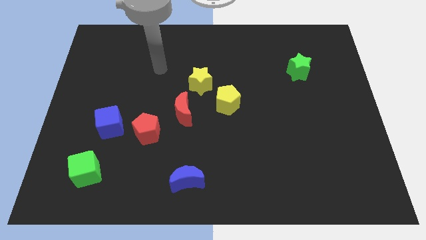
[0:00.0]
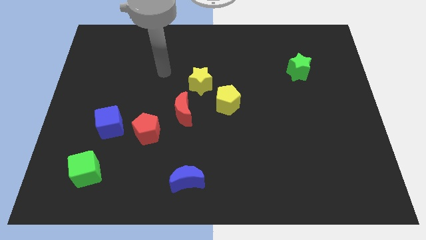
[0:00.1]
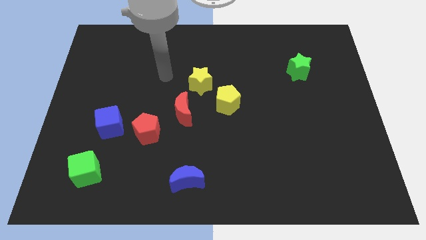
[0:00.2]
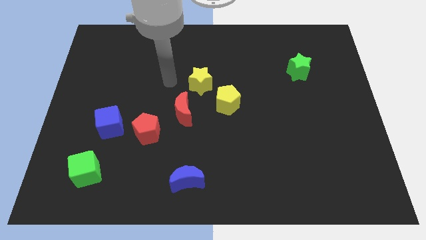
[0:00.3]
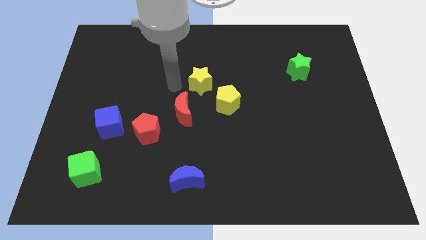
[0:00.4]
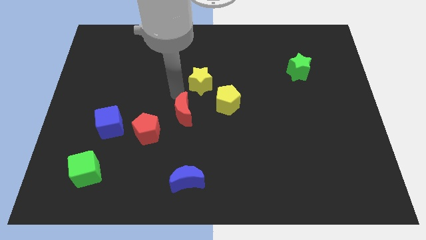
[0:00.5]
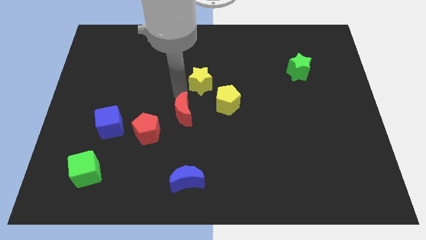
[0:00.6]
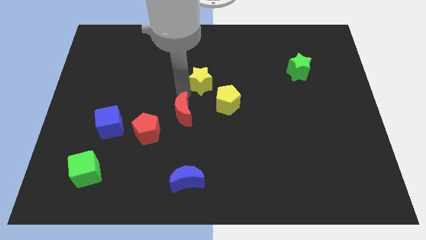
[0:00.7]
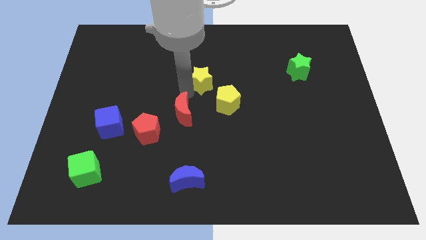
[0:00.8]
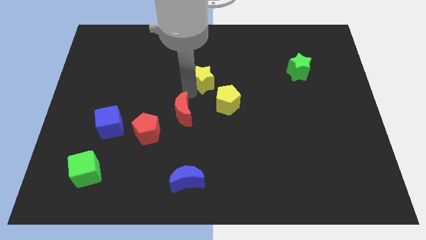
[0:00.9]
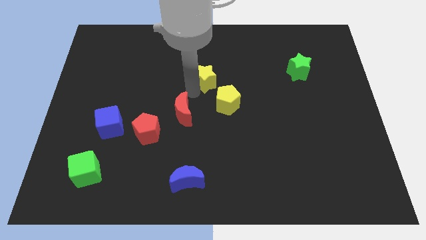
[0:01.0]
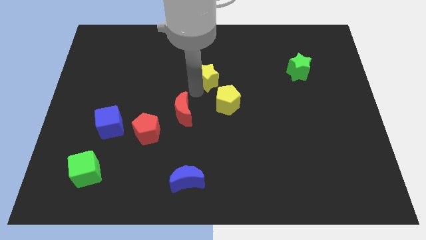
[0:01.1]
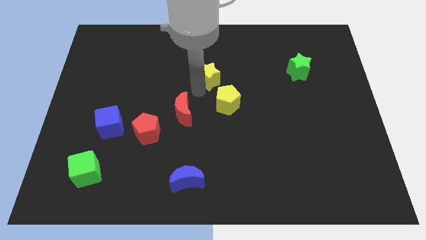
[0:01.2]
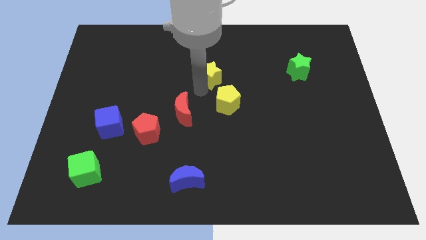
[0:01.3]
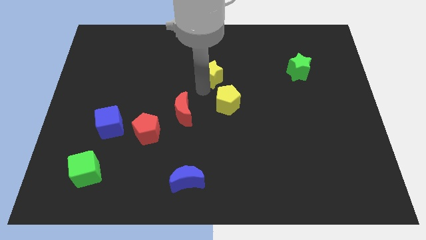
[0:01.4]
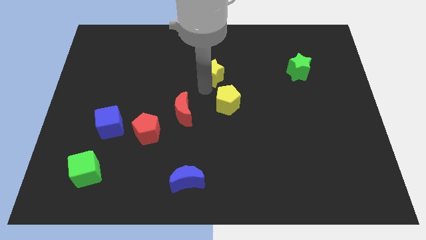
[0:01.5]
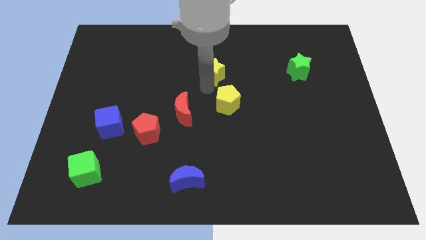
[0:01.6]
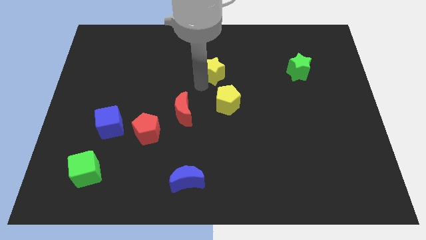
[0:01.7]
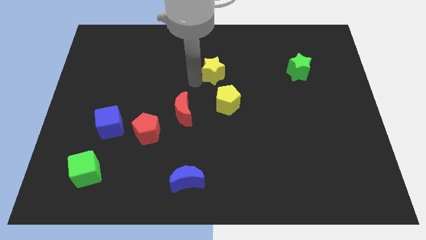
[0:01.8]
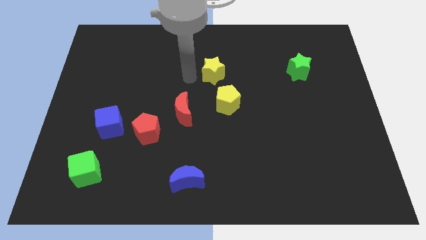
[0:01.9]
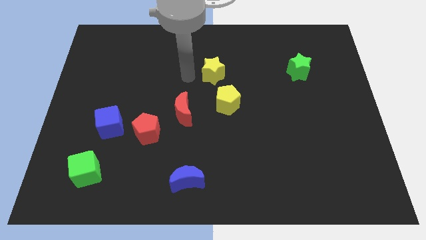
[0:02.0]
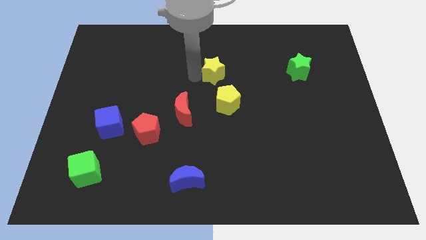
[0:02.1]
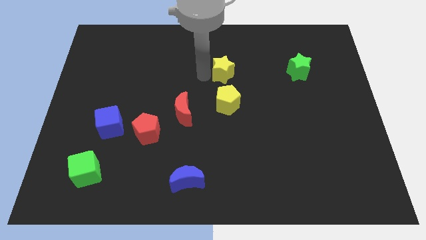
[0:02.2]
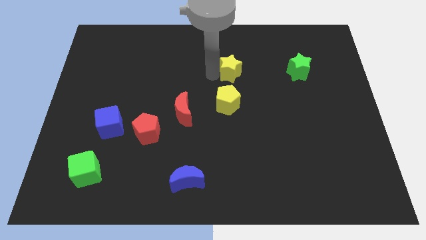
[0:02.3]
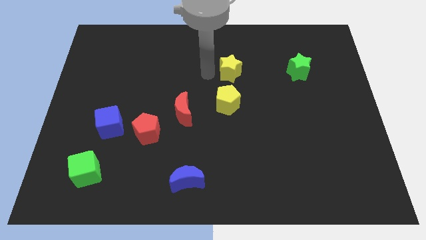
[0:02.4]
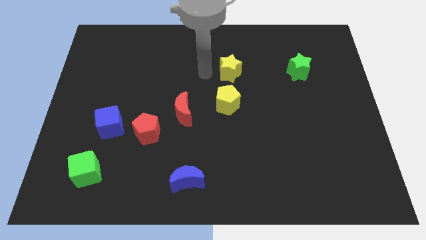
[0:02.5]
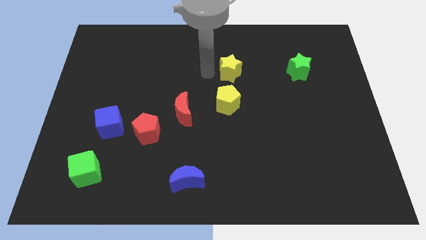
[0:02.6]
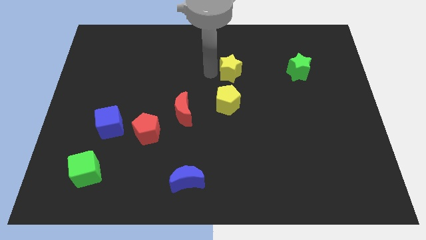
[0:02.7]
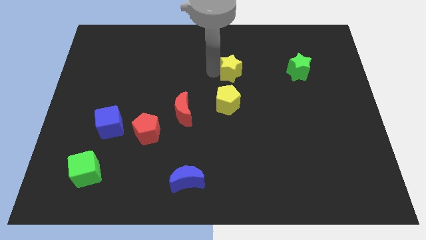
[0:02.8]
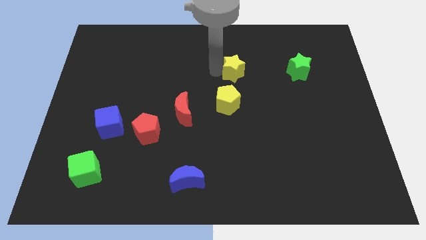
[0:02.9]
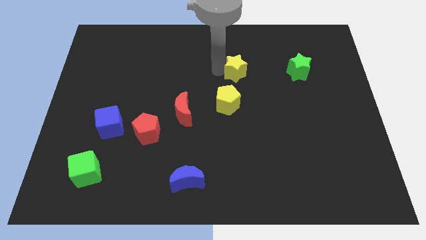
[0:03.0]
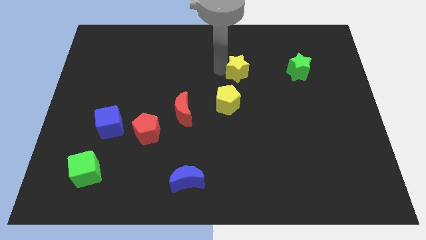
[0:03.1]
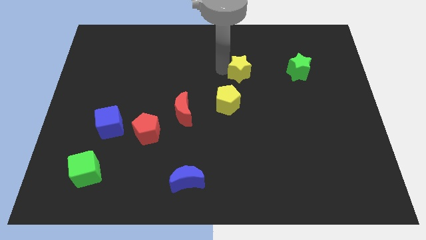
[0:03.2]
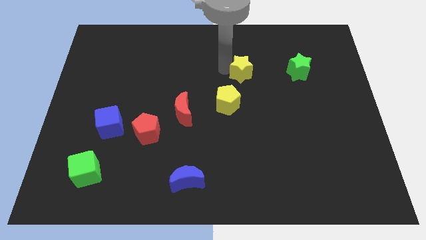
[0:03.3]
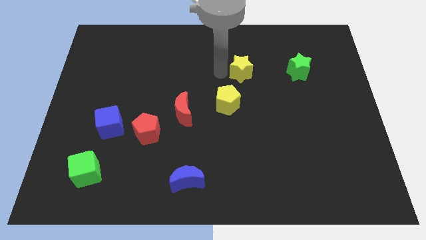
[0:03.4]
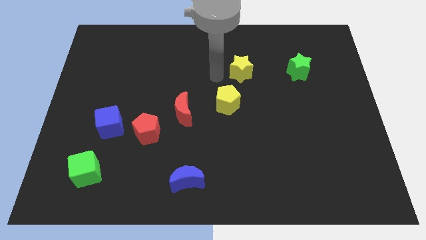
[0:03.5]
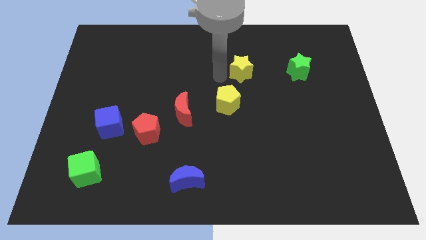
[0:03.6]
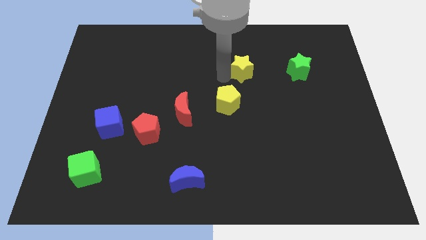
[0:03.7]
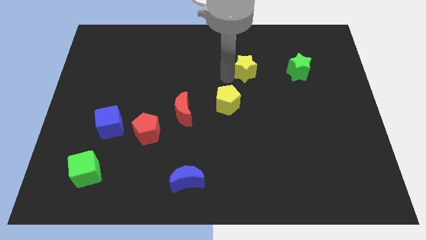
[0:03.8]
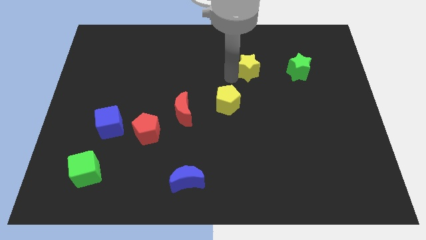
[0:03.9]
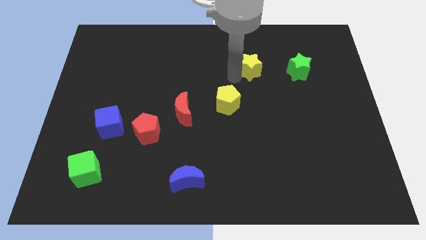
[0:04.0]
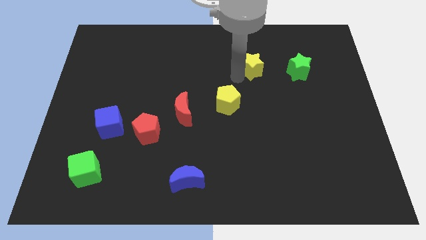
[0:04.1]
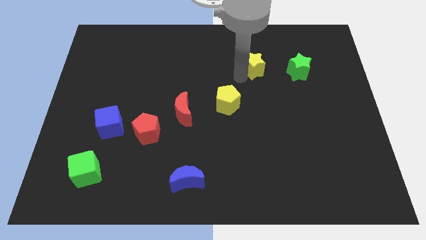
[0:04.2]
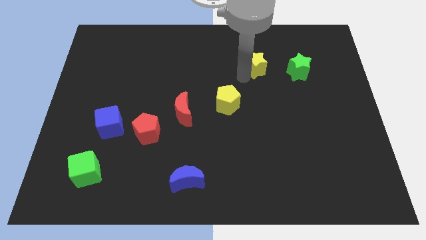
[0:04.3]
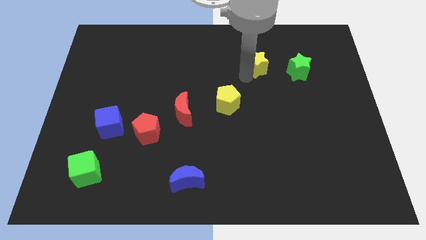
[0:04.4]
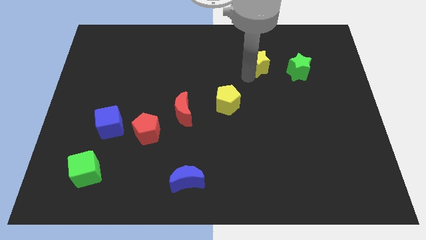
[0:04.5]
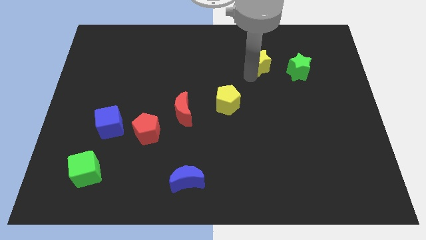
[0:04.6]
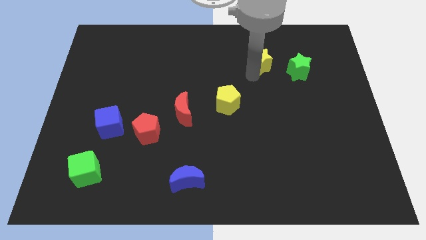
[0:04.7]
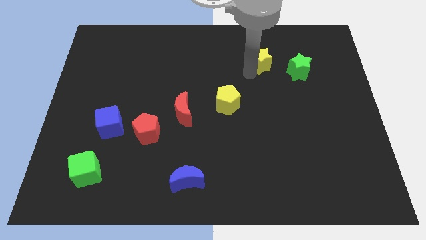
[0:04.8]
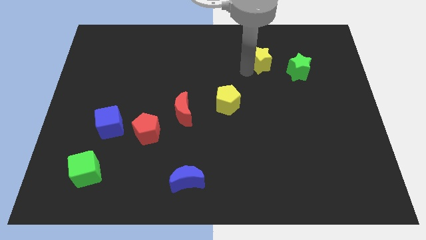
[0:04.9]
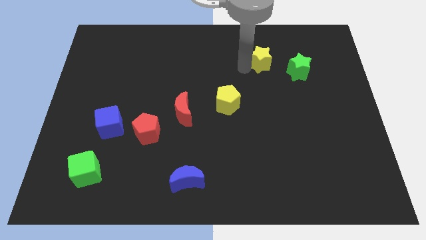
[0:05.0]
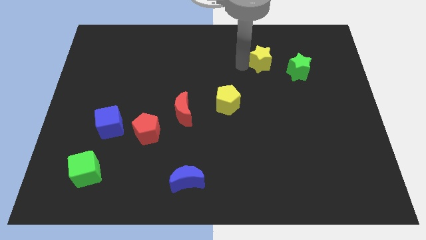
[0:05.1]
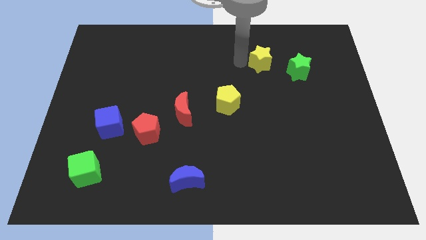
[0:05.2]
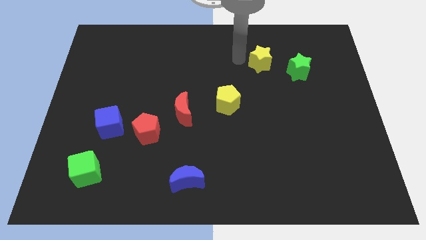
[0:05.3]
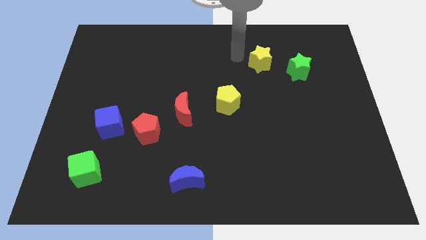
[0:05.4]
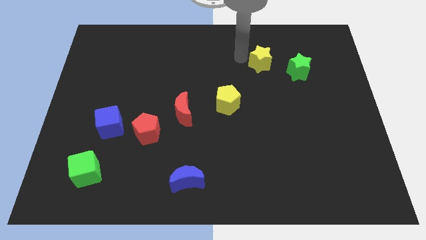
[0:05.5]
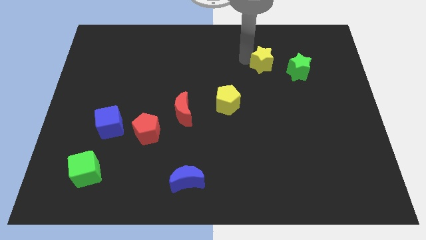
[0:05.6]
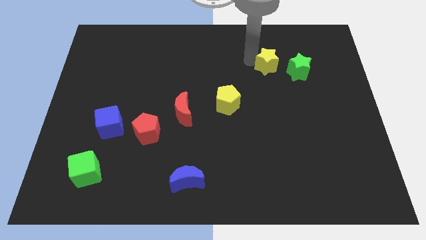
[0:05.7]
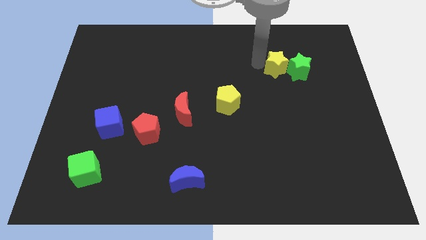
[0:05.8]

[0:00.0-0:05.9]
put the yellow star close to the green star

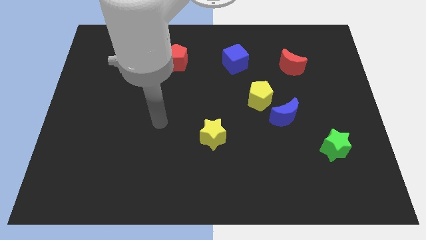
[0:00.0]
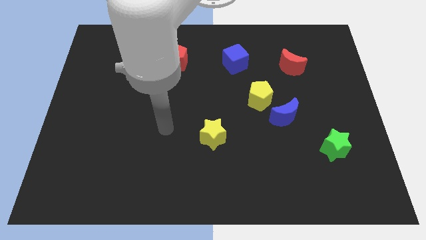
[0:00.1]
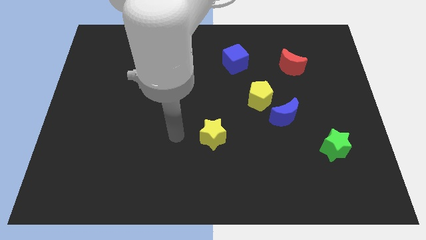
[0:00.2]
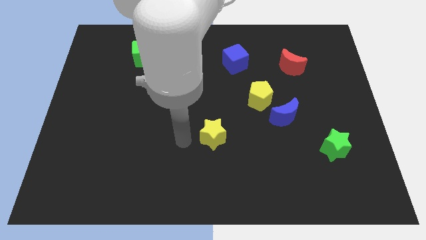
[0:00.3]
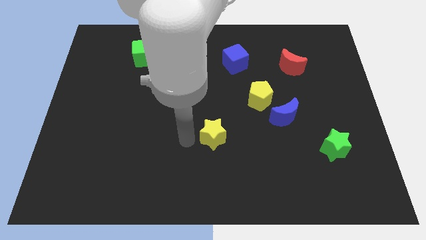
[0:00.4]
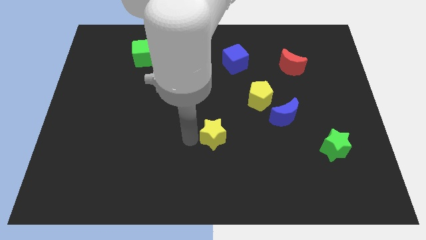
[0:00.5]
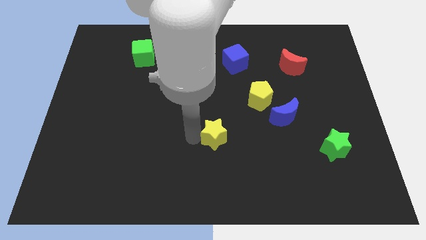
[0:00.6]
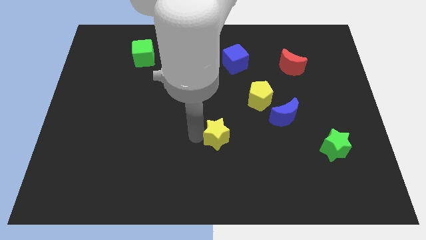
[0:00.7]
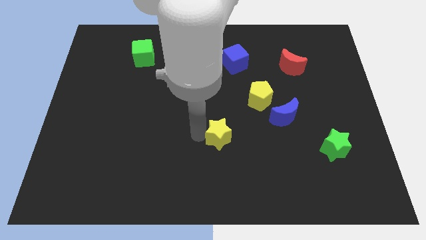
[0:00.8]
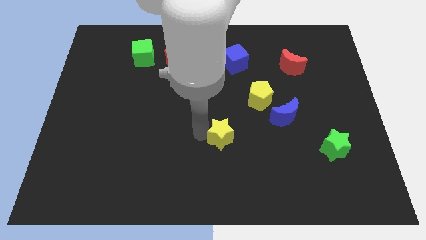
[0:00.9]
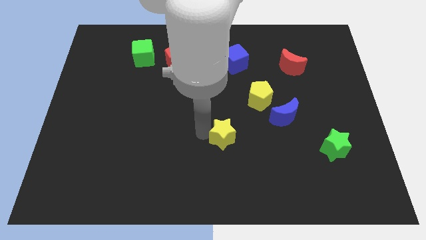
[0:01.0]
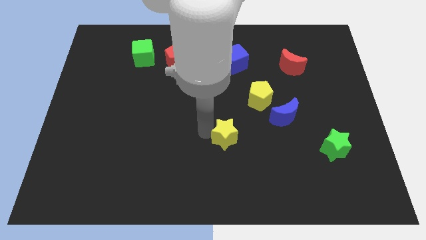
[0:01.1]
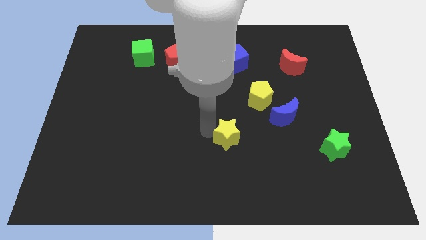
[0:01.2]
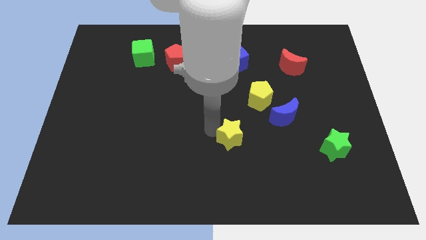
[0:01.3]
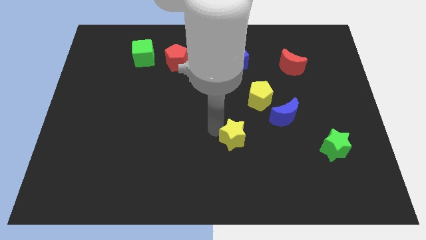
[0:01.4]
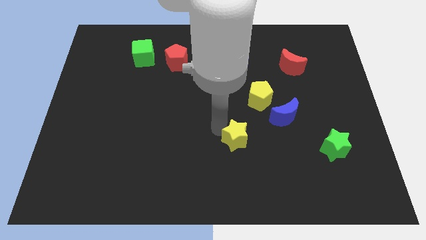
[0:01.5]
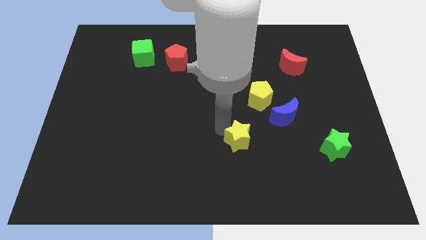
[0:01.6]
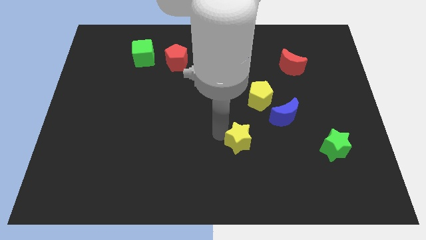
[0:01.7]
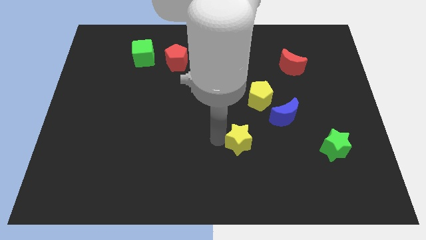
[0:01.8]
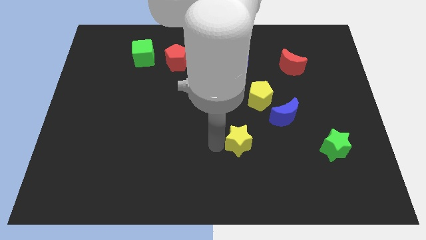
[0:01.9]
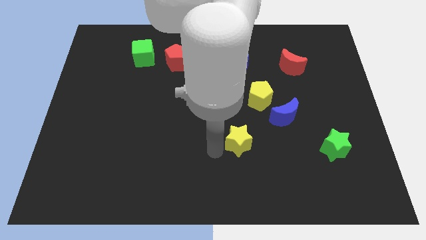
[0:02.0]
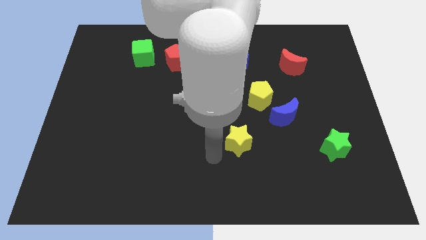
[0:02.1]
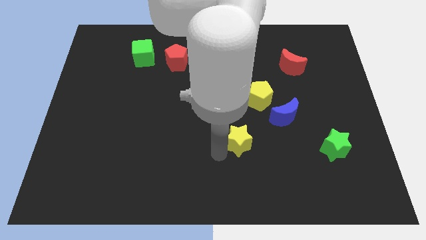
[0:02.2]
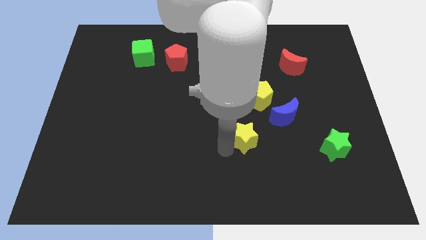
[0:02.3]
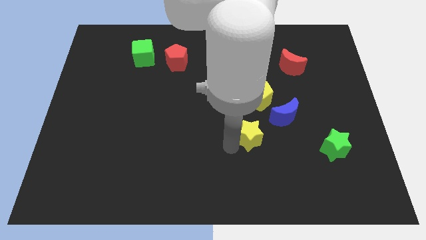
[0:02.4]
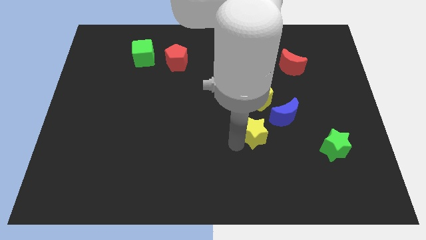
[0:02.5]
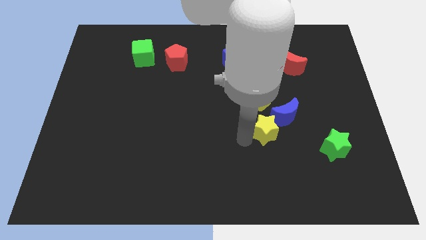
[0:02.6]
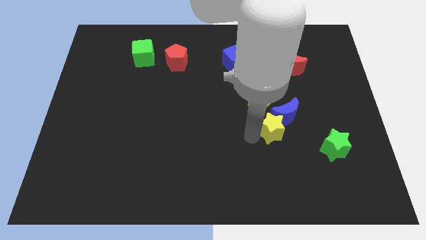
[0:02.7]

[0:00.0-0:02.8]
move the yellow star towards the blue moon
